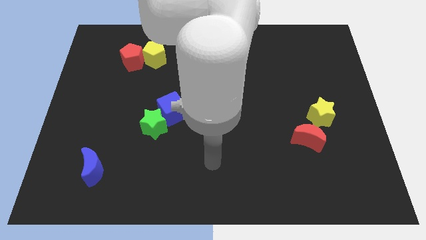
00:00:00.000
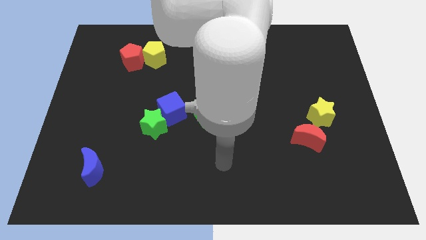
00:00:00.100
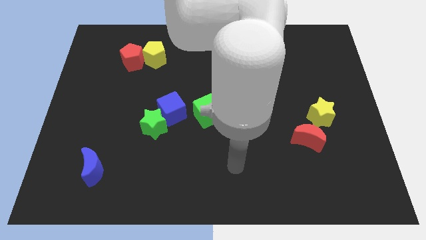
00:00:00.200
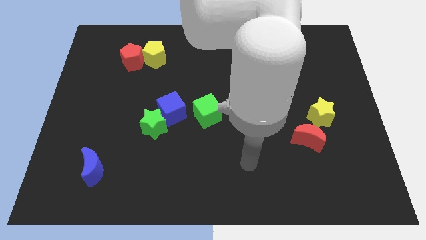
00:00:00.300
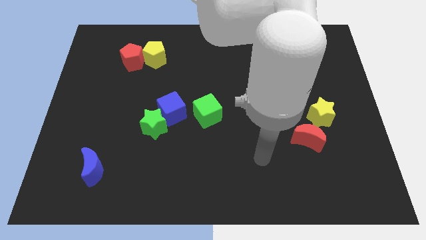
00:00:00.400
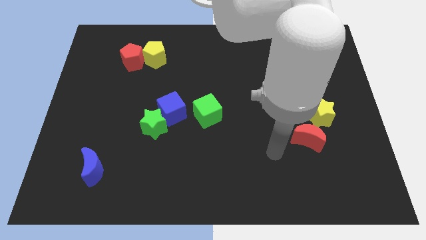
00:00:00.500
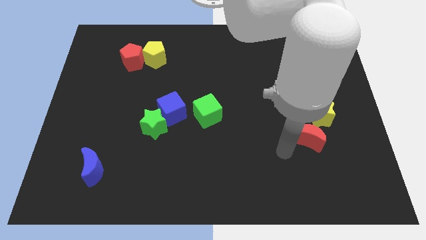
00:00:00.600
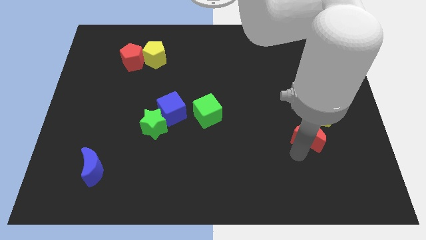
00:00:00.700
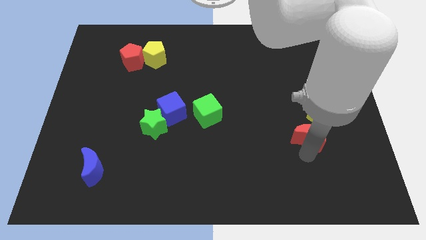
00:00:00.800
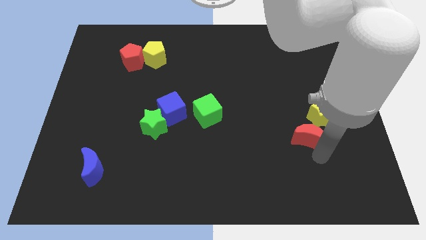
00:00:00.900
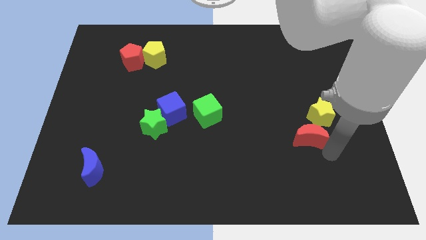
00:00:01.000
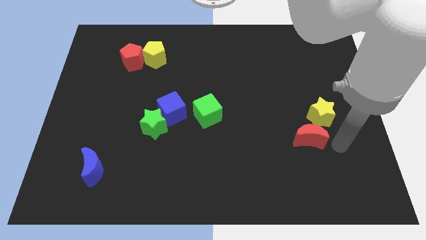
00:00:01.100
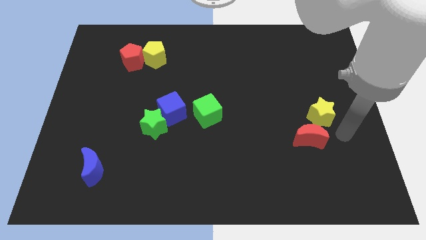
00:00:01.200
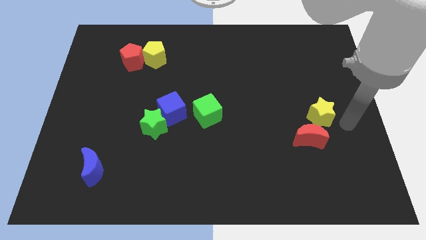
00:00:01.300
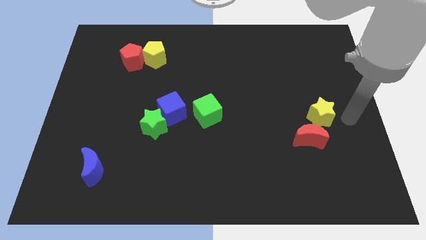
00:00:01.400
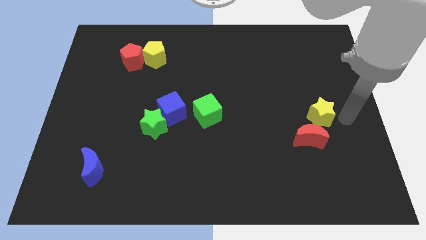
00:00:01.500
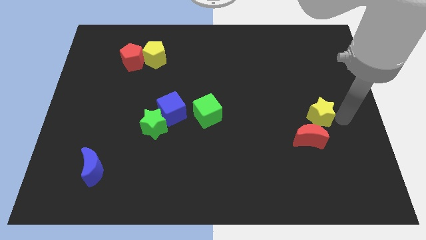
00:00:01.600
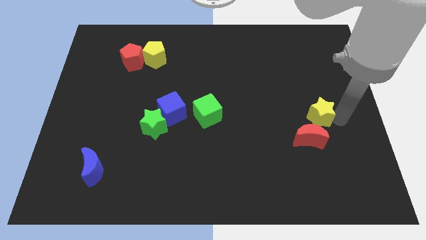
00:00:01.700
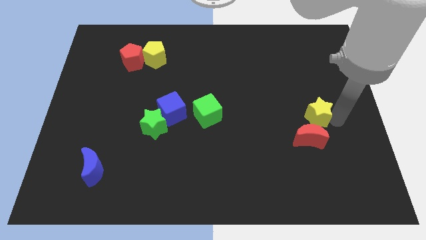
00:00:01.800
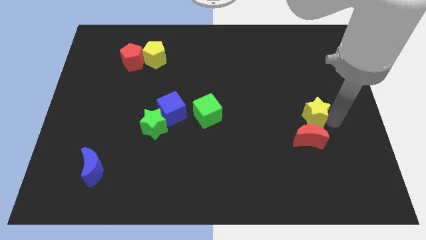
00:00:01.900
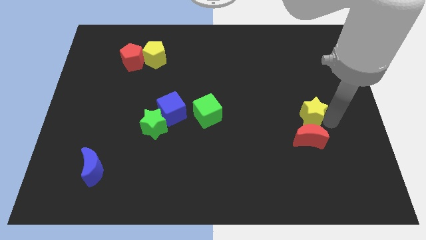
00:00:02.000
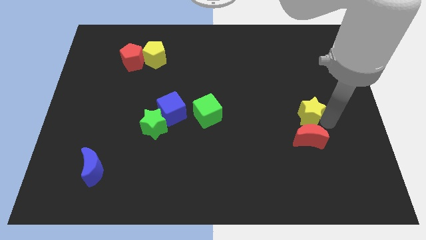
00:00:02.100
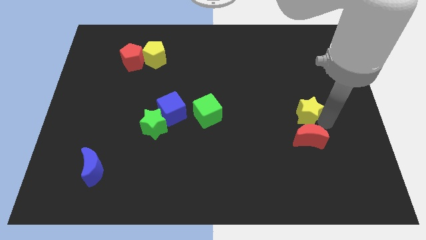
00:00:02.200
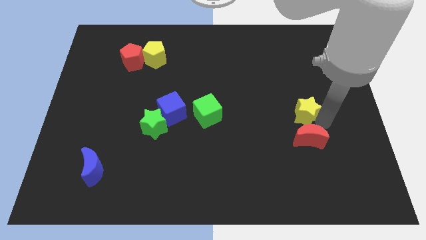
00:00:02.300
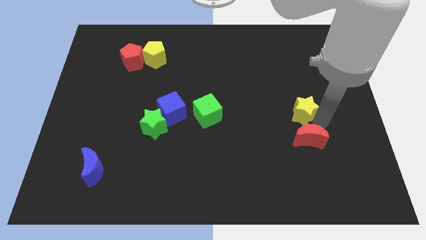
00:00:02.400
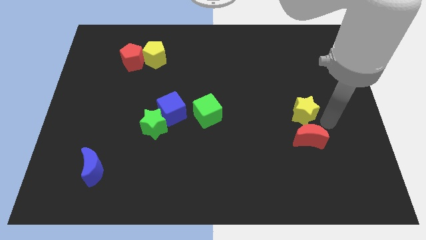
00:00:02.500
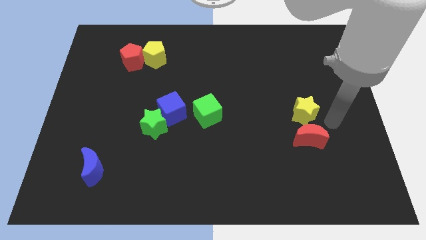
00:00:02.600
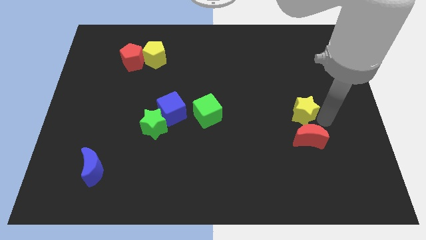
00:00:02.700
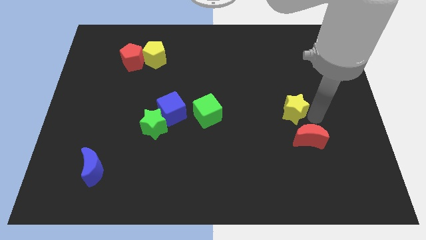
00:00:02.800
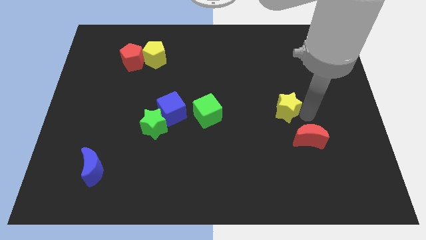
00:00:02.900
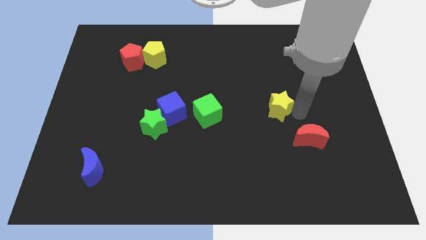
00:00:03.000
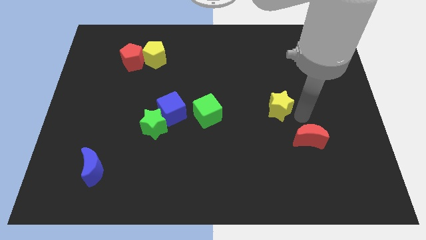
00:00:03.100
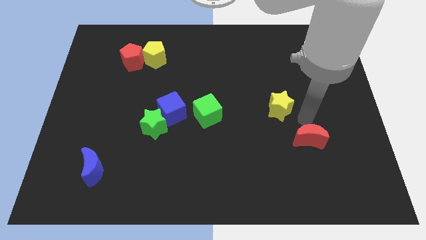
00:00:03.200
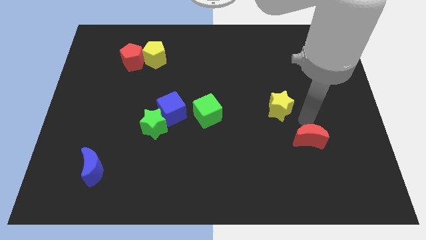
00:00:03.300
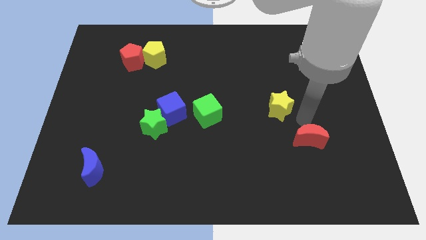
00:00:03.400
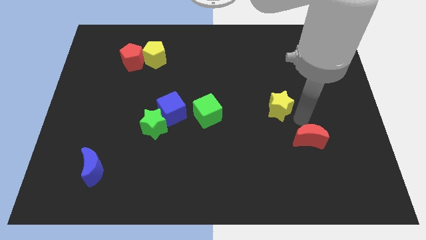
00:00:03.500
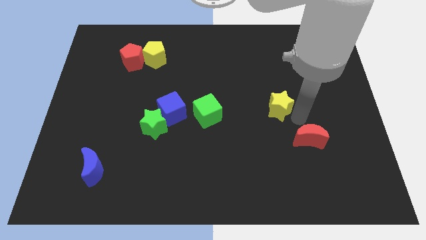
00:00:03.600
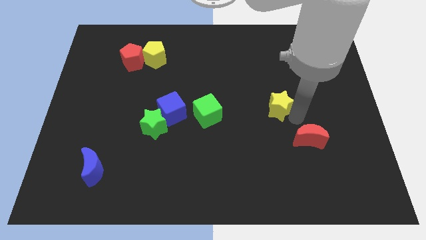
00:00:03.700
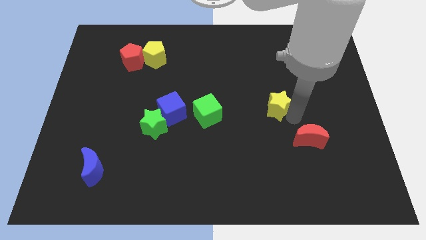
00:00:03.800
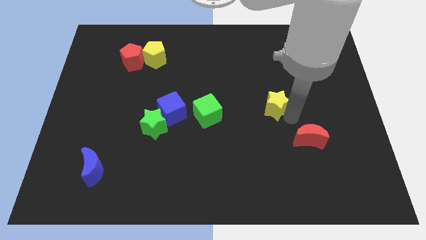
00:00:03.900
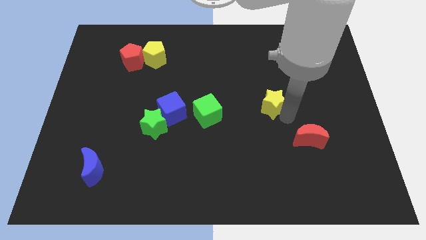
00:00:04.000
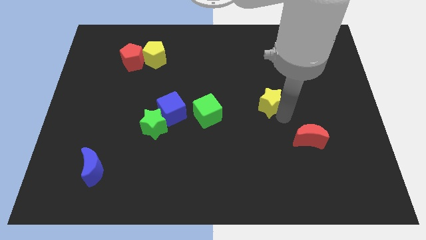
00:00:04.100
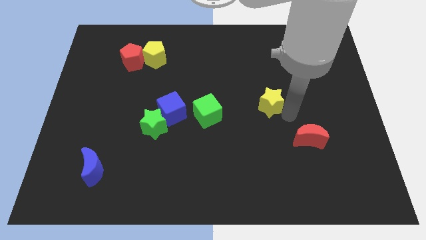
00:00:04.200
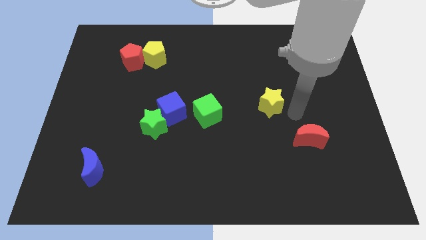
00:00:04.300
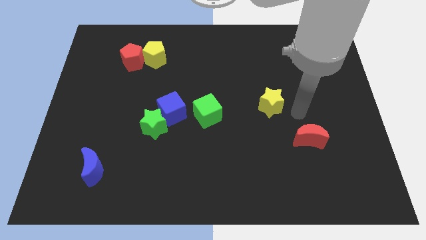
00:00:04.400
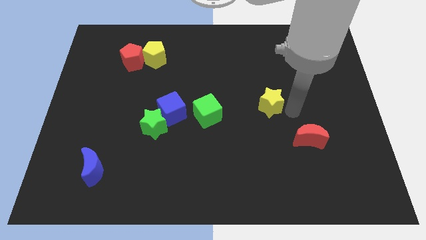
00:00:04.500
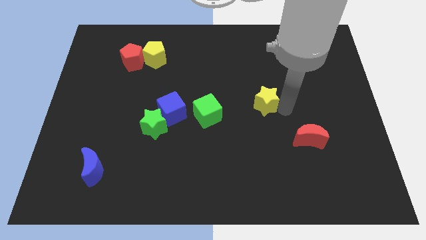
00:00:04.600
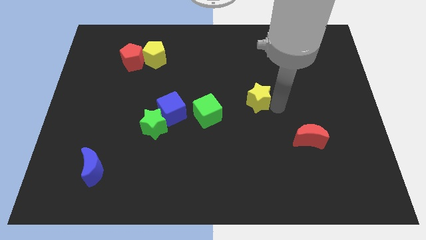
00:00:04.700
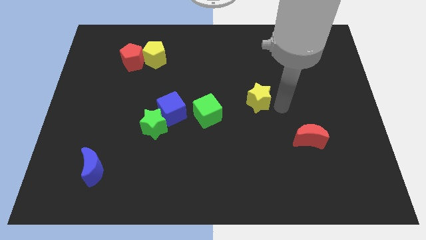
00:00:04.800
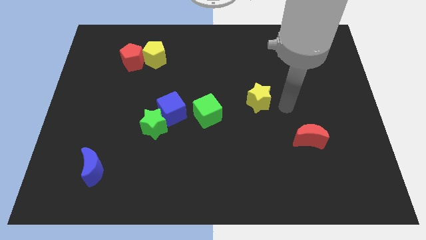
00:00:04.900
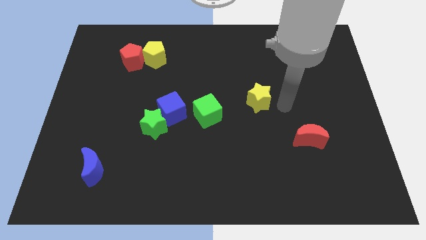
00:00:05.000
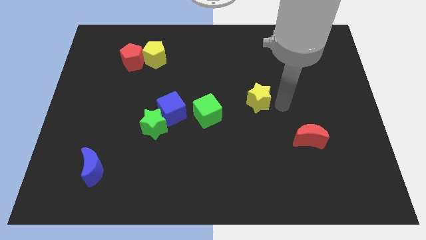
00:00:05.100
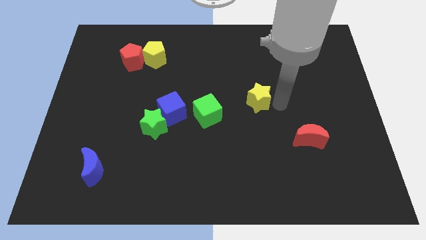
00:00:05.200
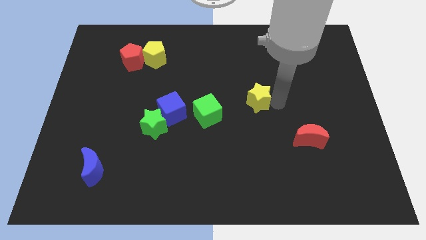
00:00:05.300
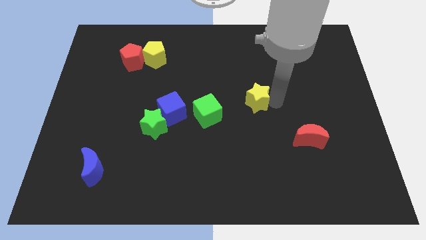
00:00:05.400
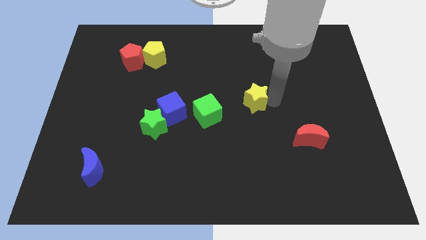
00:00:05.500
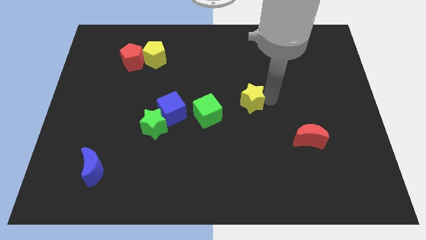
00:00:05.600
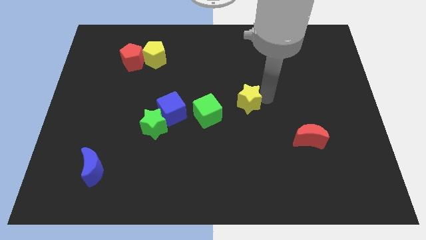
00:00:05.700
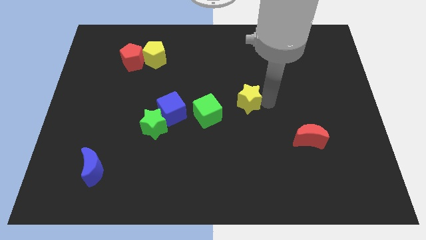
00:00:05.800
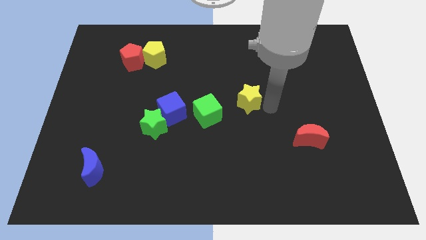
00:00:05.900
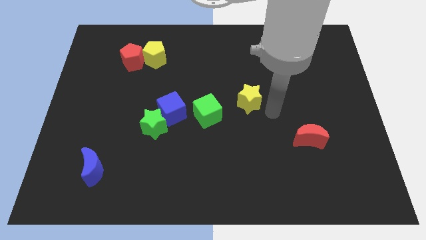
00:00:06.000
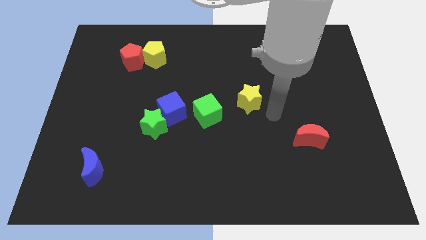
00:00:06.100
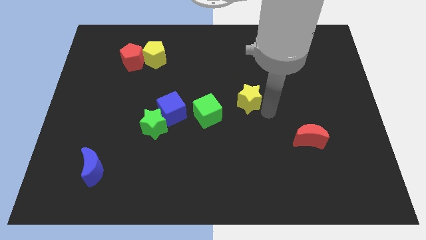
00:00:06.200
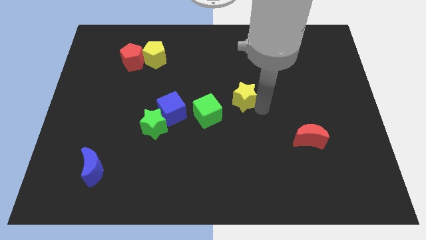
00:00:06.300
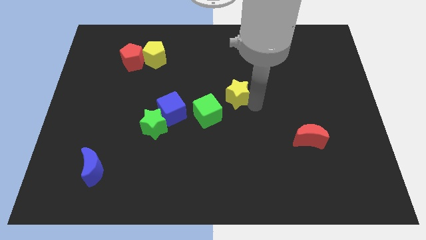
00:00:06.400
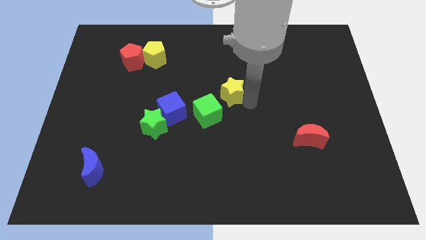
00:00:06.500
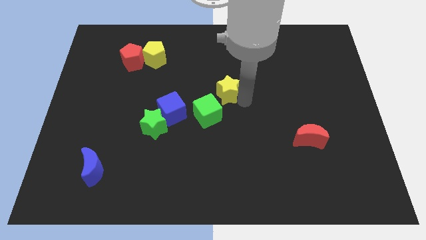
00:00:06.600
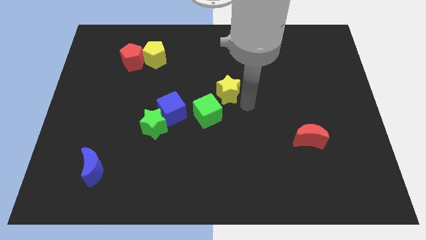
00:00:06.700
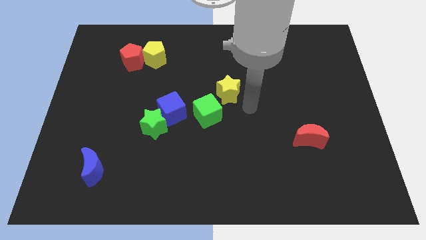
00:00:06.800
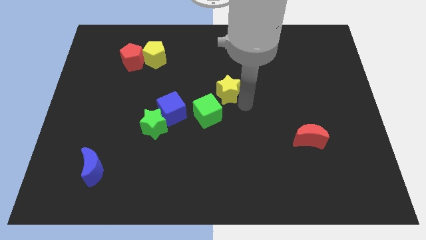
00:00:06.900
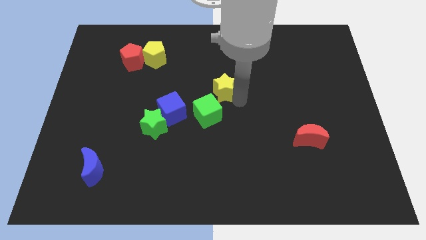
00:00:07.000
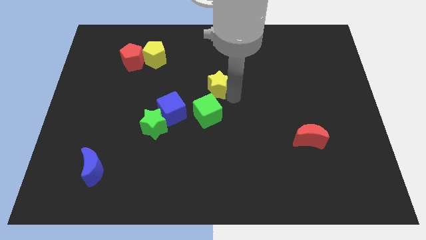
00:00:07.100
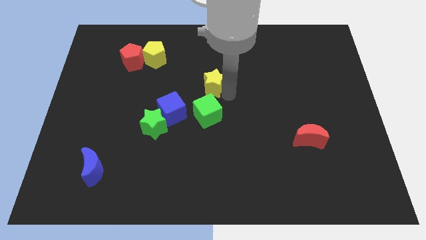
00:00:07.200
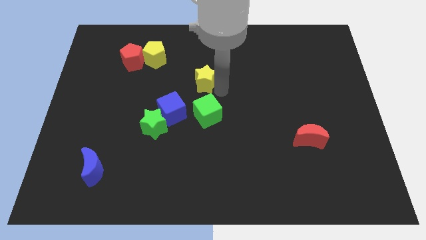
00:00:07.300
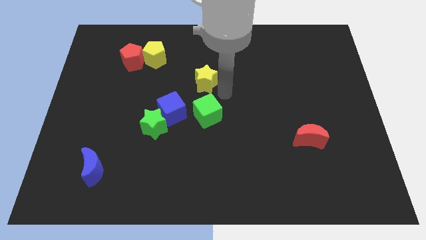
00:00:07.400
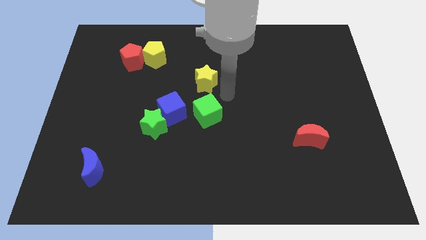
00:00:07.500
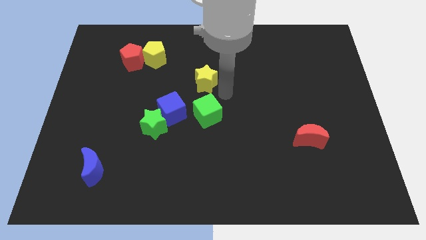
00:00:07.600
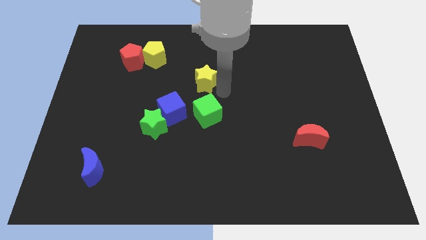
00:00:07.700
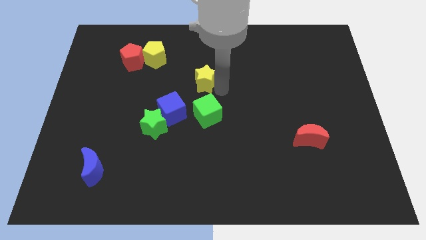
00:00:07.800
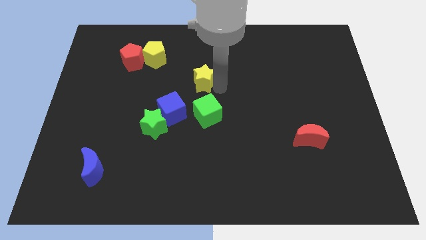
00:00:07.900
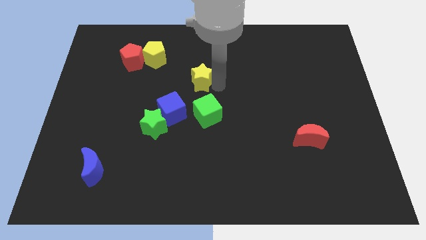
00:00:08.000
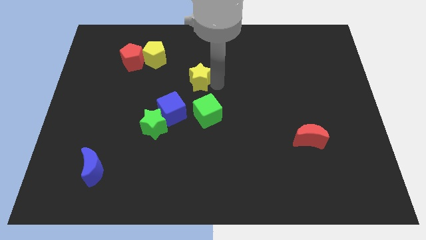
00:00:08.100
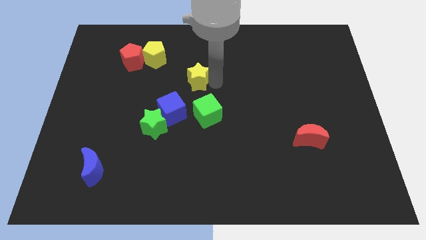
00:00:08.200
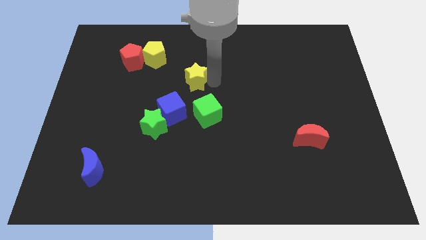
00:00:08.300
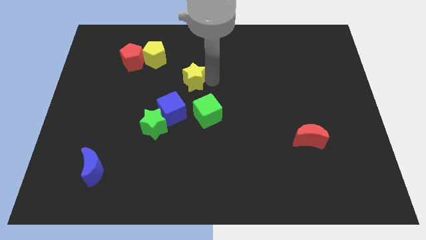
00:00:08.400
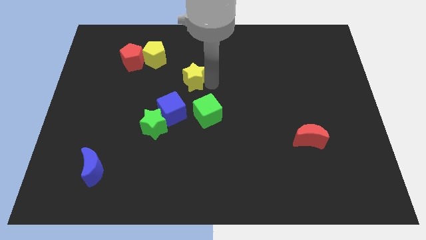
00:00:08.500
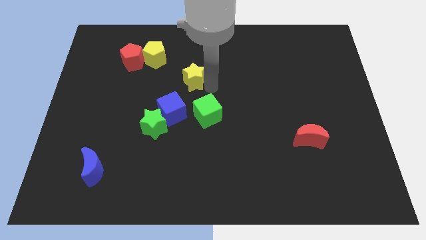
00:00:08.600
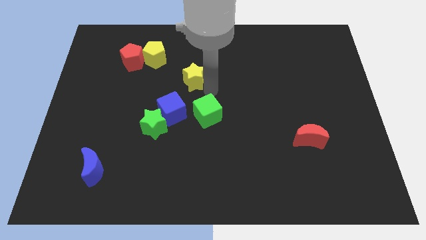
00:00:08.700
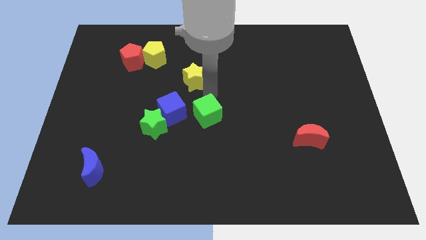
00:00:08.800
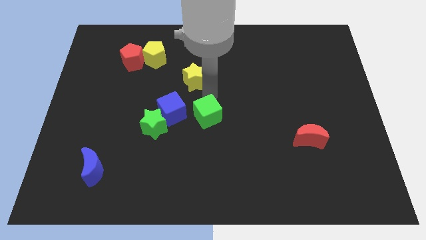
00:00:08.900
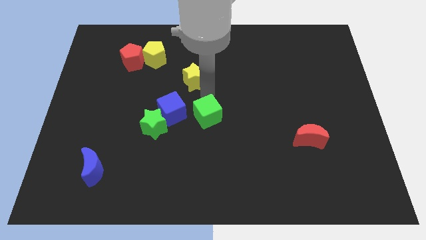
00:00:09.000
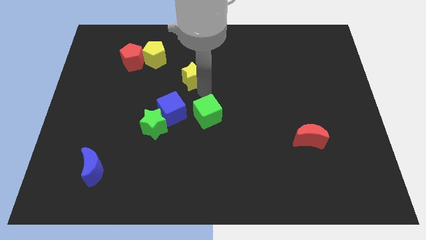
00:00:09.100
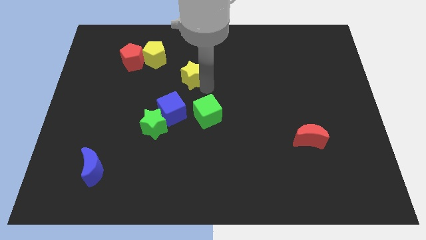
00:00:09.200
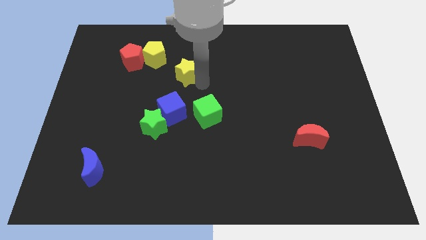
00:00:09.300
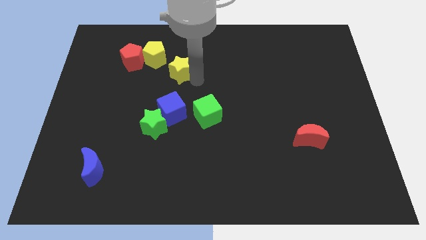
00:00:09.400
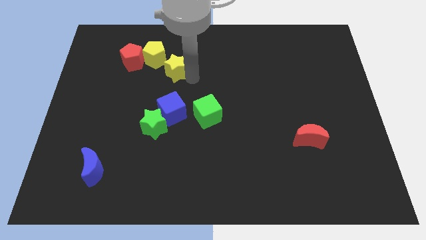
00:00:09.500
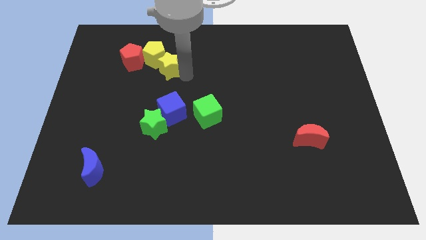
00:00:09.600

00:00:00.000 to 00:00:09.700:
move the yellow star next to the yellow pentagon
